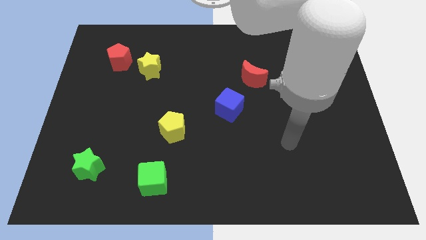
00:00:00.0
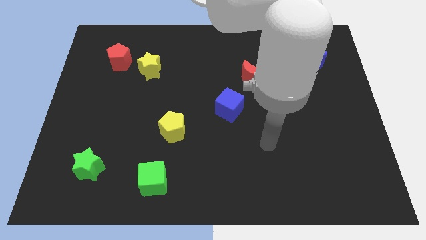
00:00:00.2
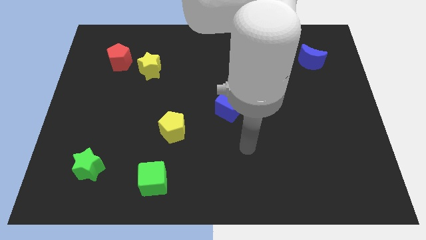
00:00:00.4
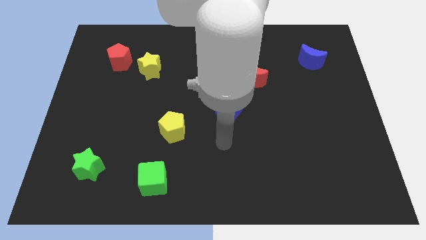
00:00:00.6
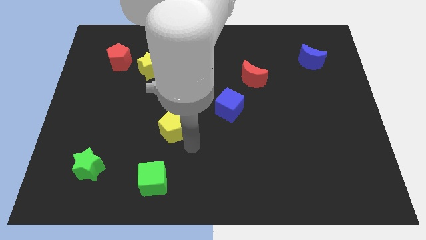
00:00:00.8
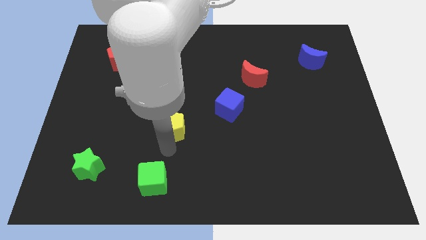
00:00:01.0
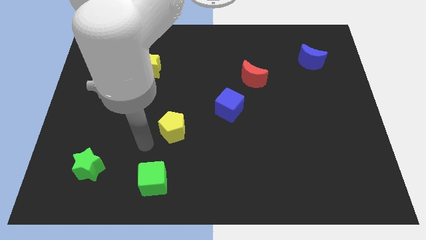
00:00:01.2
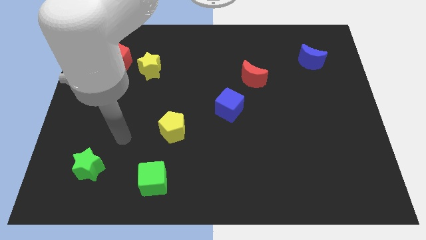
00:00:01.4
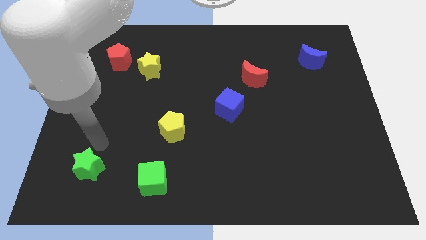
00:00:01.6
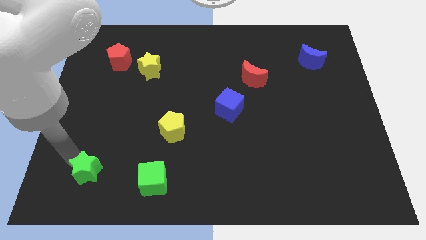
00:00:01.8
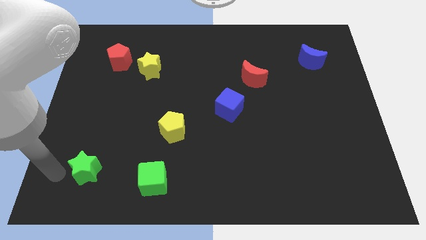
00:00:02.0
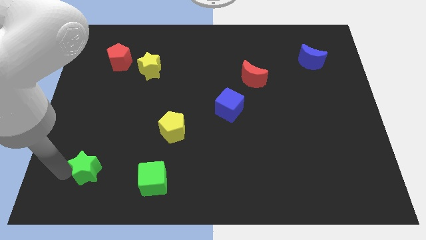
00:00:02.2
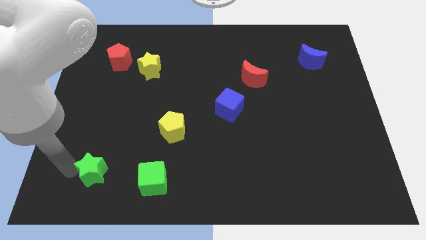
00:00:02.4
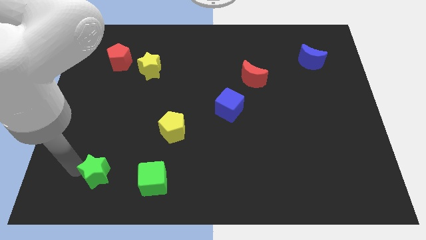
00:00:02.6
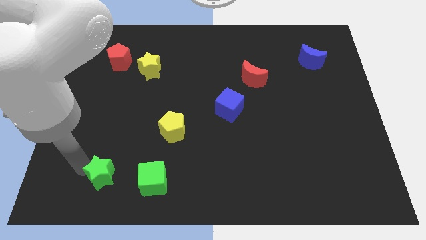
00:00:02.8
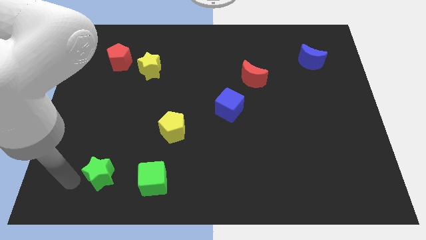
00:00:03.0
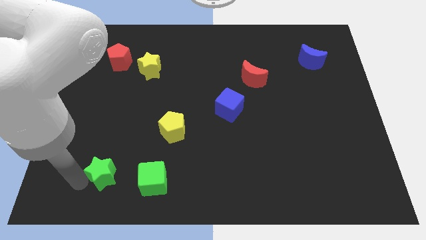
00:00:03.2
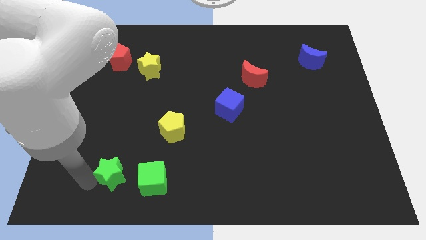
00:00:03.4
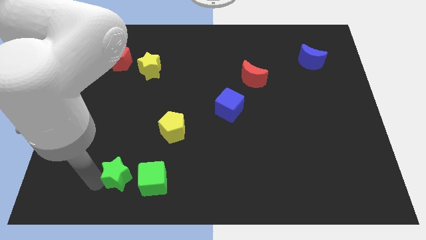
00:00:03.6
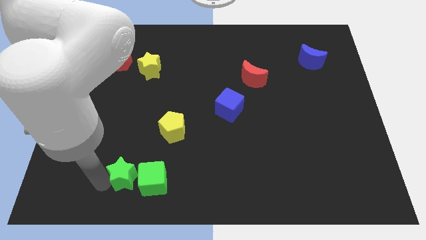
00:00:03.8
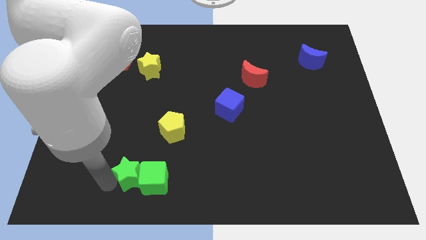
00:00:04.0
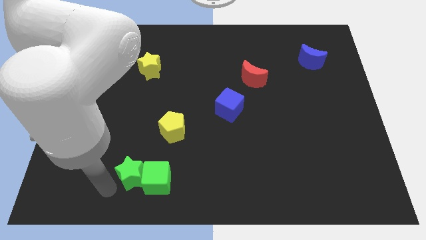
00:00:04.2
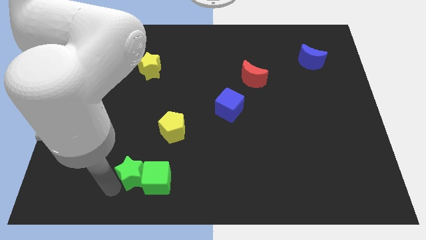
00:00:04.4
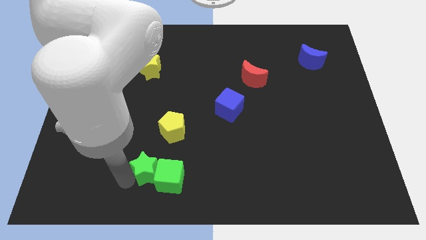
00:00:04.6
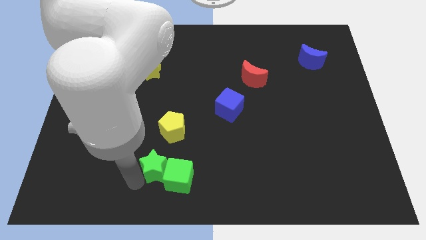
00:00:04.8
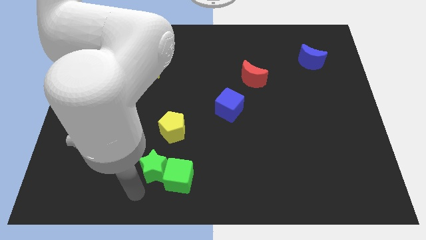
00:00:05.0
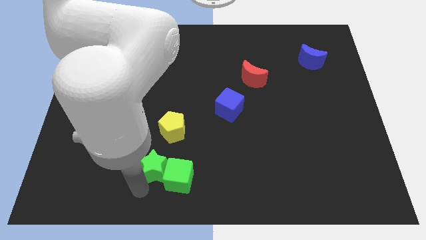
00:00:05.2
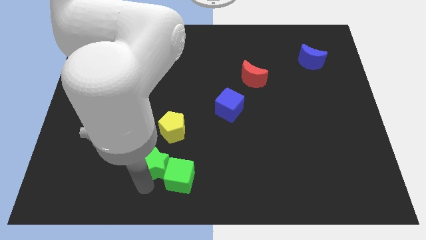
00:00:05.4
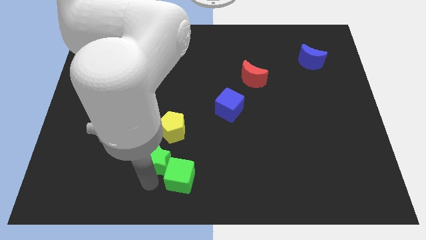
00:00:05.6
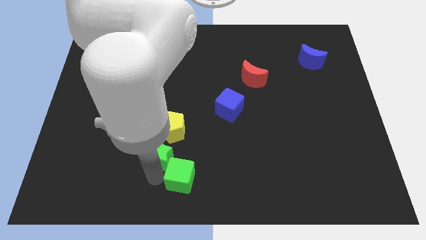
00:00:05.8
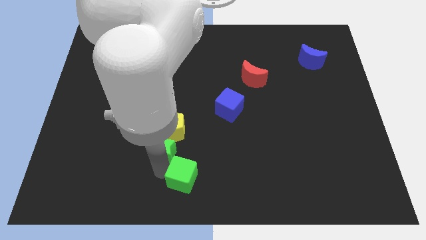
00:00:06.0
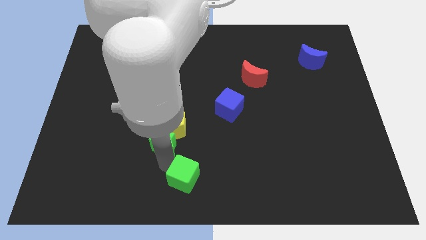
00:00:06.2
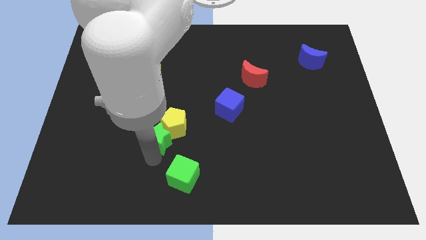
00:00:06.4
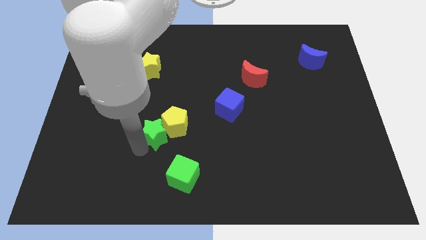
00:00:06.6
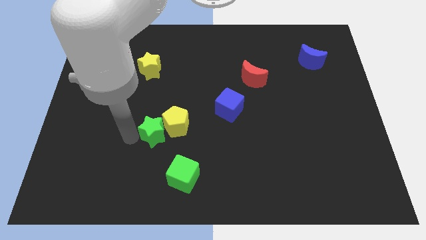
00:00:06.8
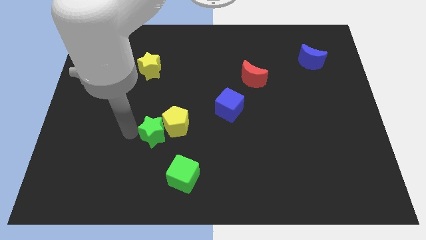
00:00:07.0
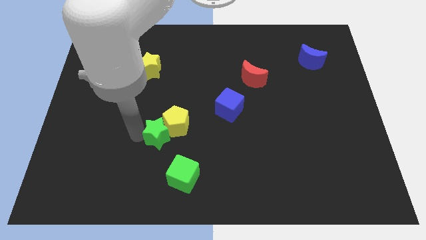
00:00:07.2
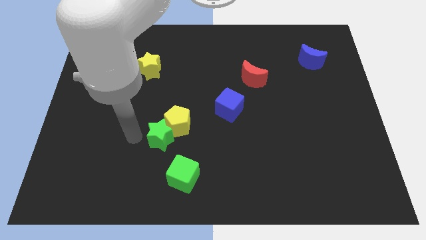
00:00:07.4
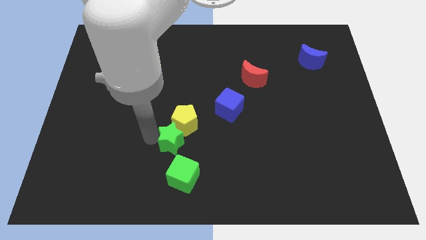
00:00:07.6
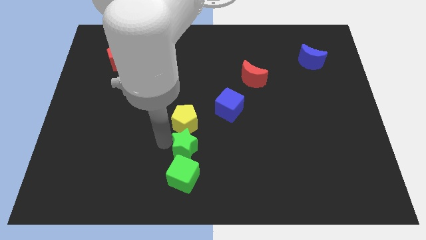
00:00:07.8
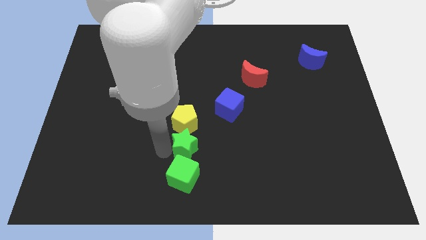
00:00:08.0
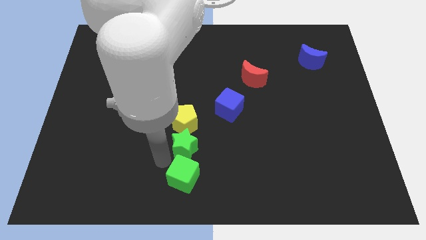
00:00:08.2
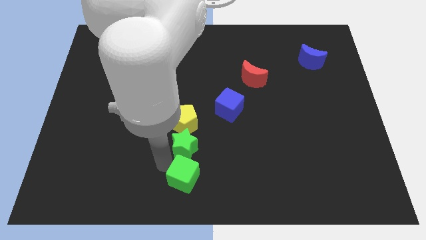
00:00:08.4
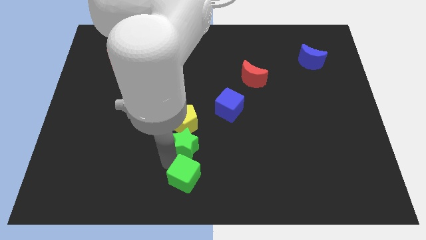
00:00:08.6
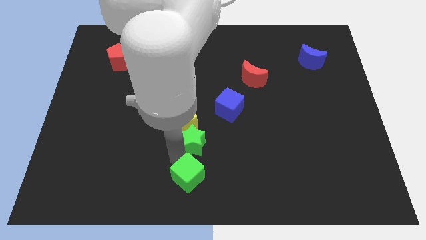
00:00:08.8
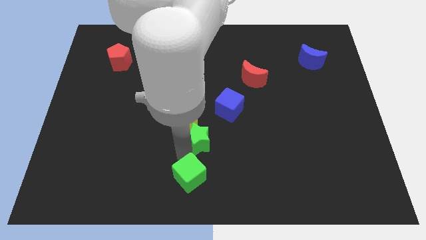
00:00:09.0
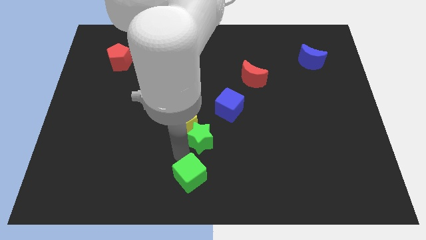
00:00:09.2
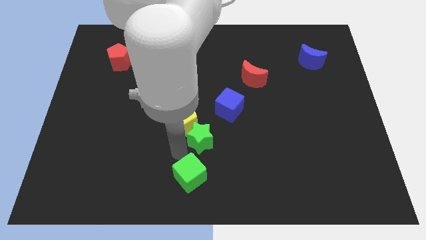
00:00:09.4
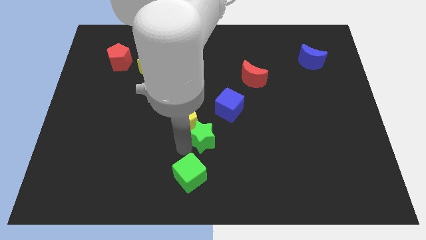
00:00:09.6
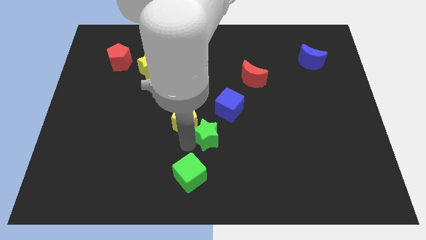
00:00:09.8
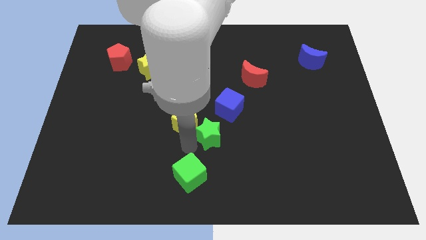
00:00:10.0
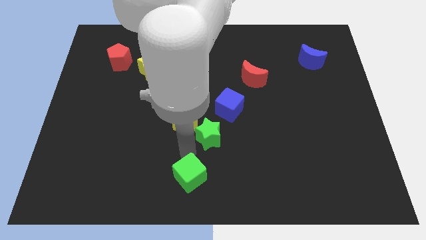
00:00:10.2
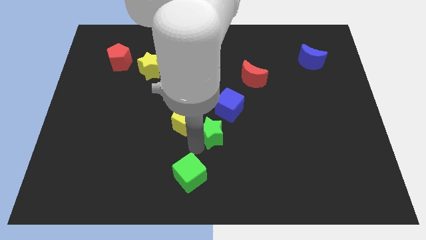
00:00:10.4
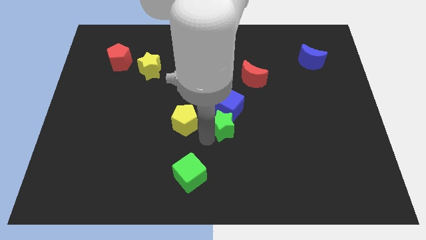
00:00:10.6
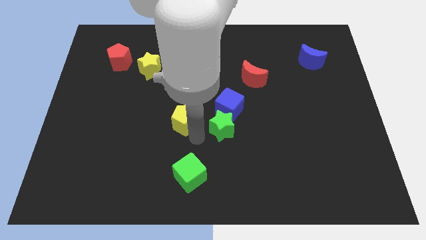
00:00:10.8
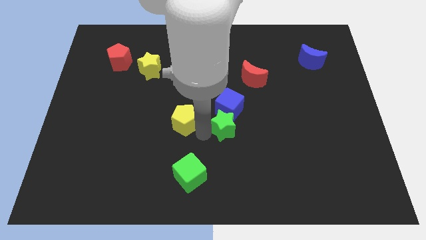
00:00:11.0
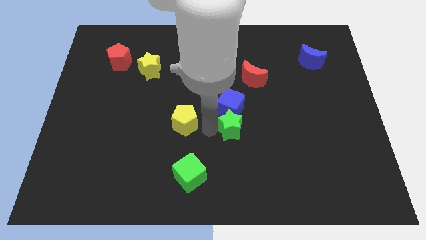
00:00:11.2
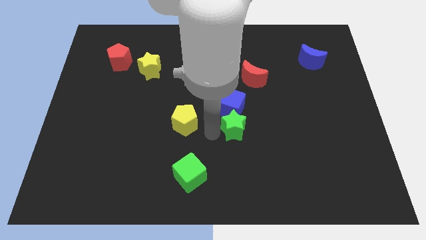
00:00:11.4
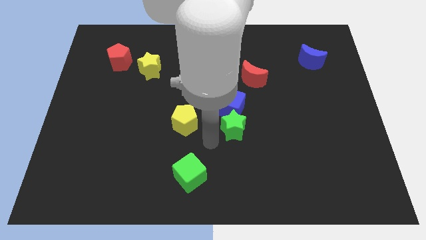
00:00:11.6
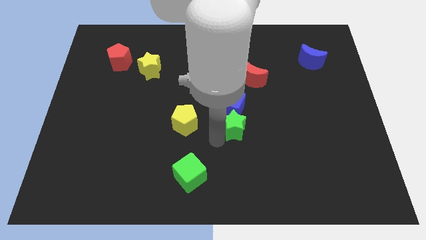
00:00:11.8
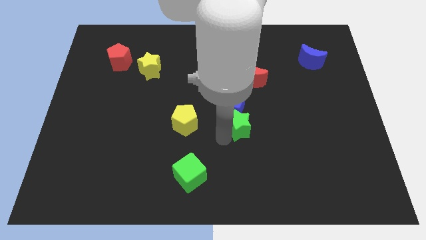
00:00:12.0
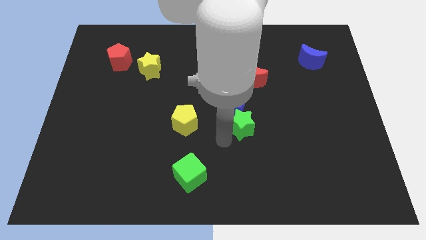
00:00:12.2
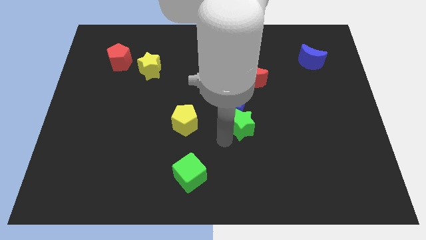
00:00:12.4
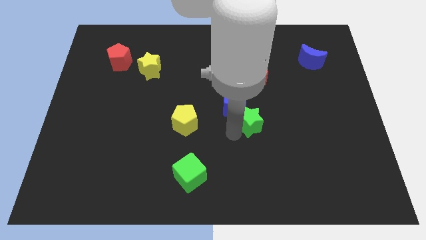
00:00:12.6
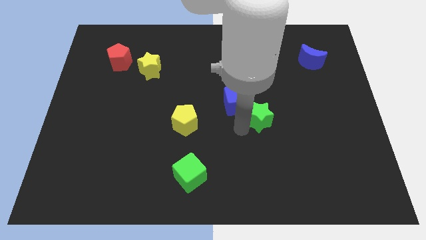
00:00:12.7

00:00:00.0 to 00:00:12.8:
put the green star just right of the blue cube
